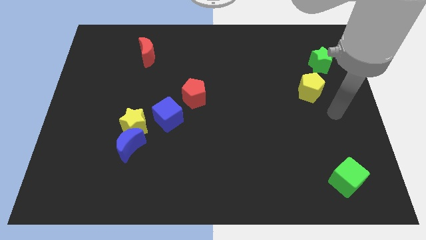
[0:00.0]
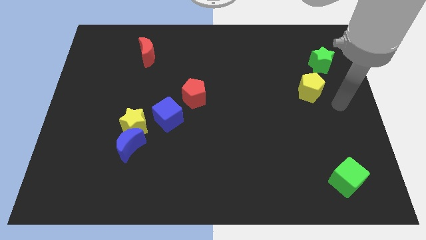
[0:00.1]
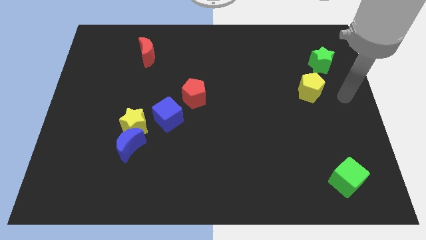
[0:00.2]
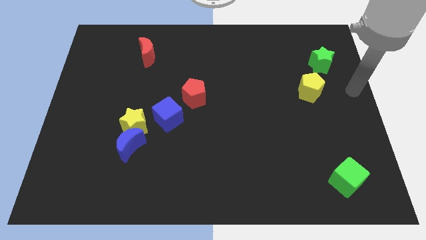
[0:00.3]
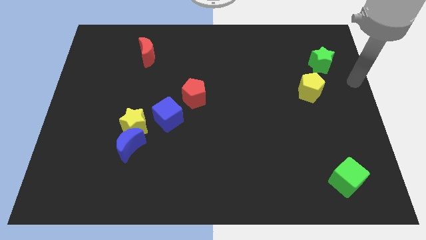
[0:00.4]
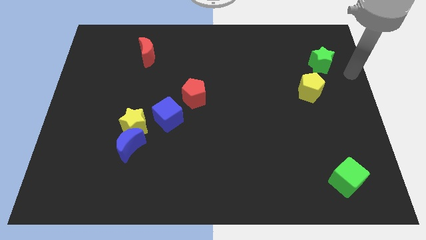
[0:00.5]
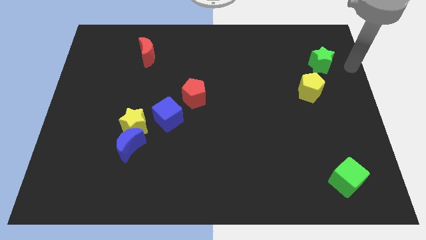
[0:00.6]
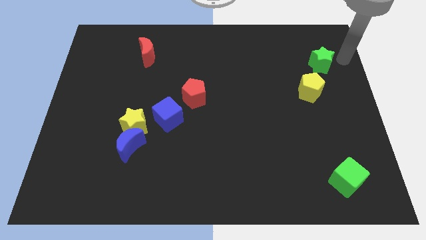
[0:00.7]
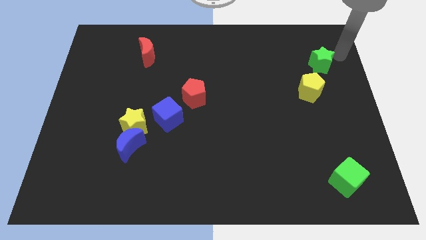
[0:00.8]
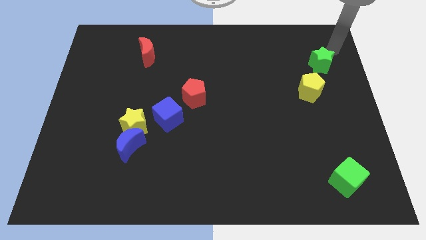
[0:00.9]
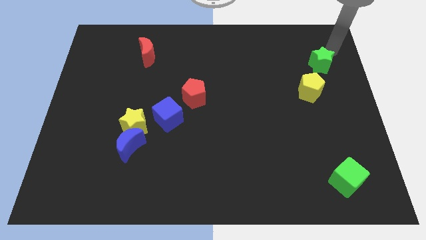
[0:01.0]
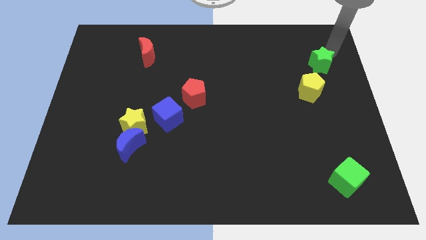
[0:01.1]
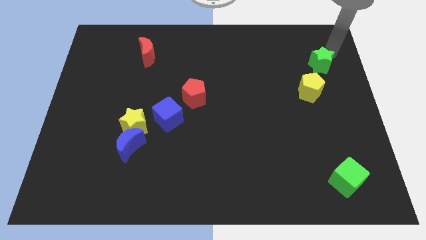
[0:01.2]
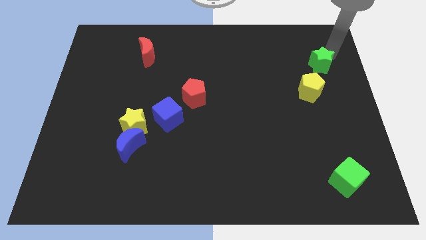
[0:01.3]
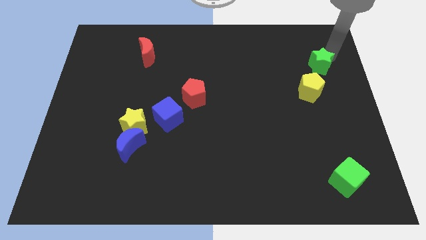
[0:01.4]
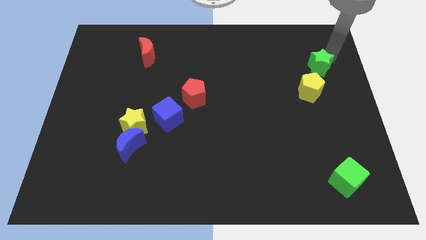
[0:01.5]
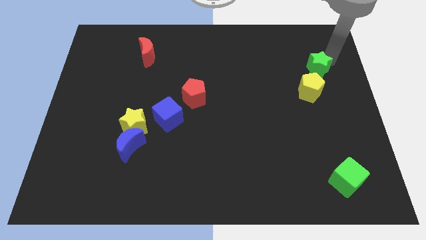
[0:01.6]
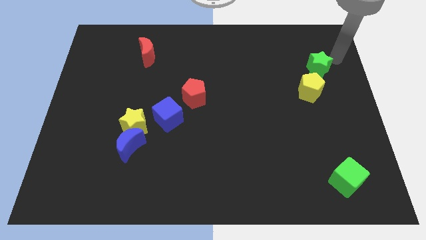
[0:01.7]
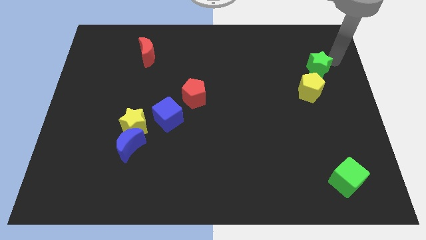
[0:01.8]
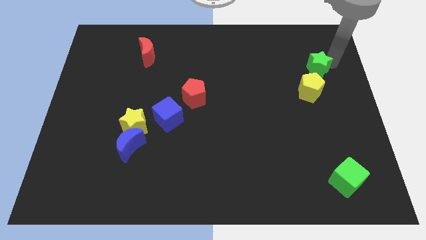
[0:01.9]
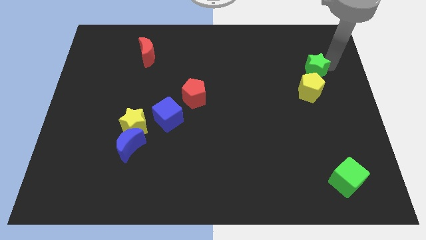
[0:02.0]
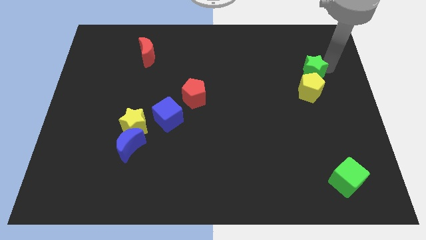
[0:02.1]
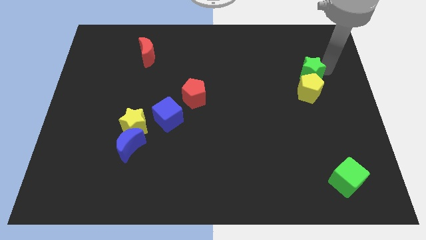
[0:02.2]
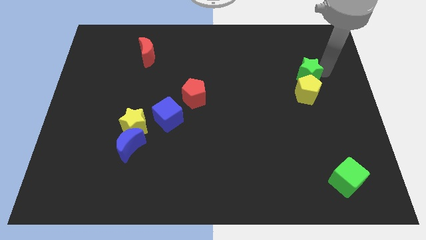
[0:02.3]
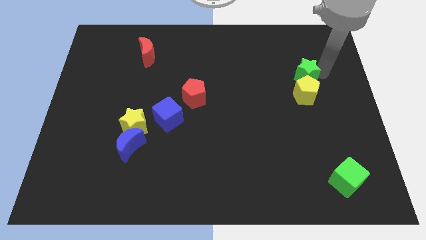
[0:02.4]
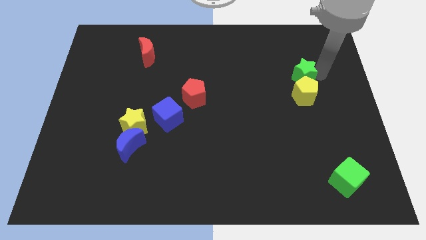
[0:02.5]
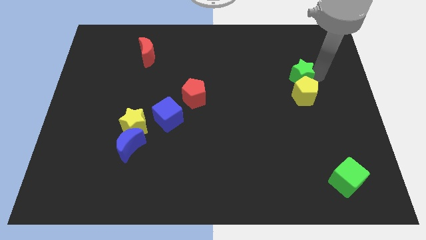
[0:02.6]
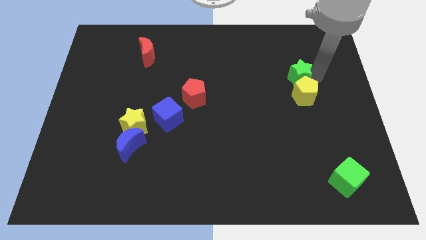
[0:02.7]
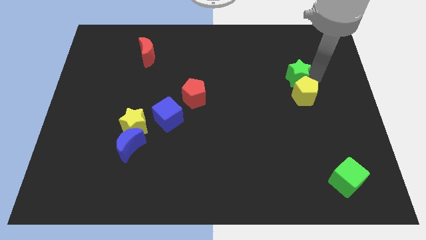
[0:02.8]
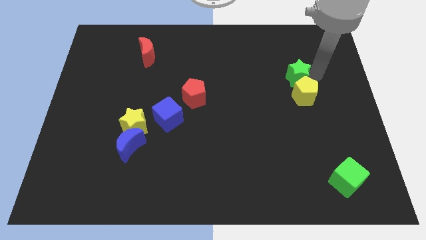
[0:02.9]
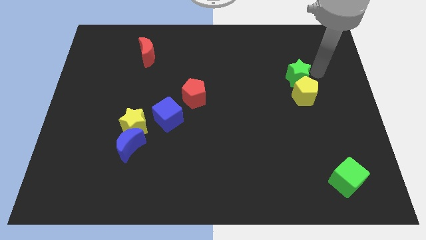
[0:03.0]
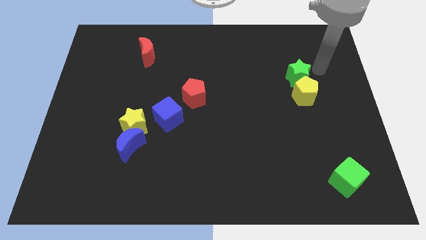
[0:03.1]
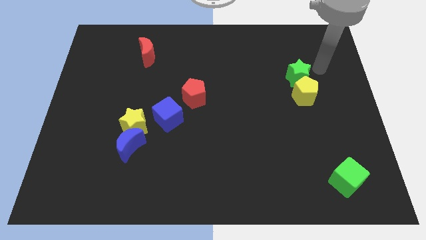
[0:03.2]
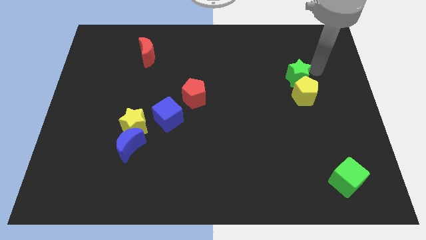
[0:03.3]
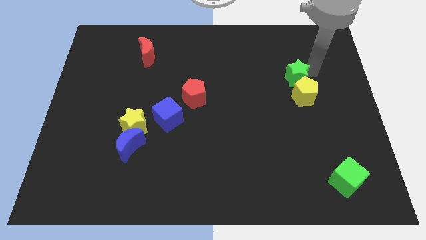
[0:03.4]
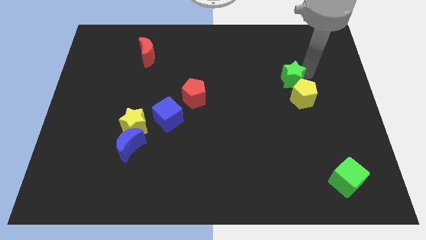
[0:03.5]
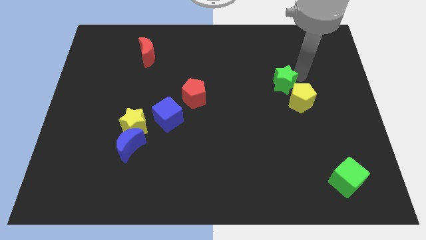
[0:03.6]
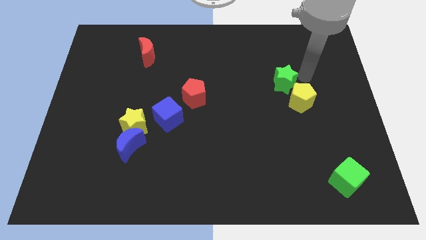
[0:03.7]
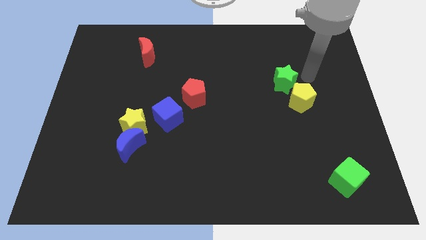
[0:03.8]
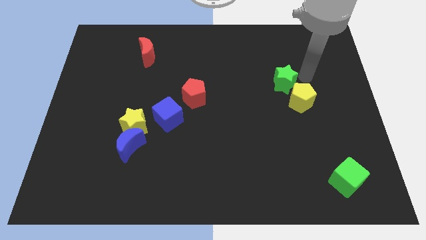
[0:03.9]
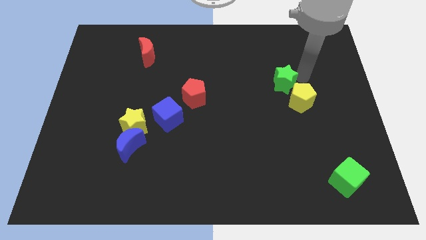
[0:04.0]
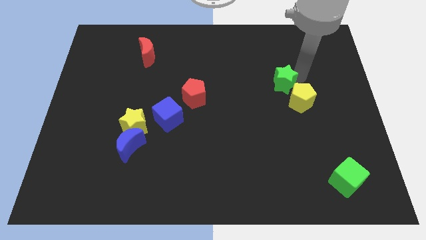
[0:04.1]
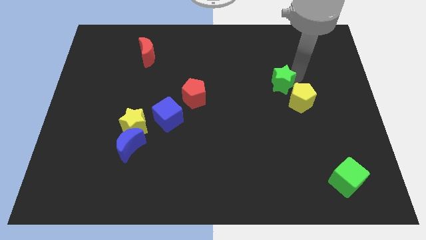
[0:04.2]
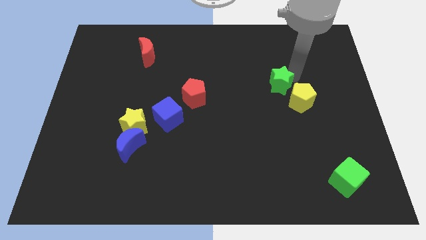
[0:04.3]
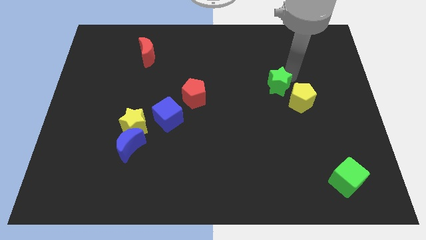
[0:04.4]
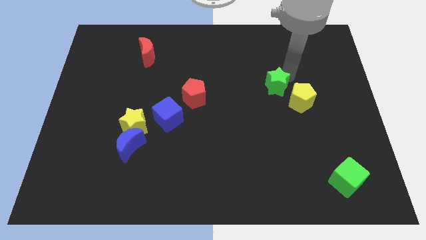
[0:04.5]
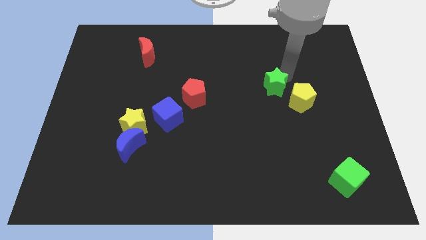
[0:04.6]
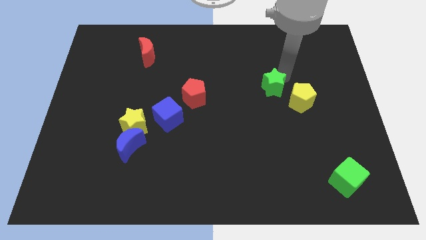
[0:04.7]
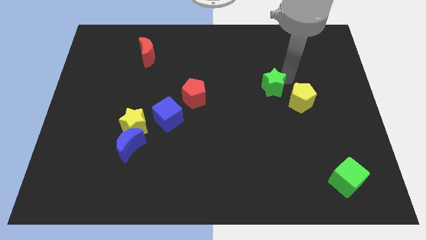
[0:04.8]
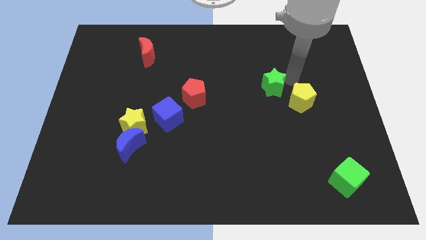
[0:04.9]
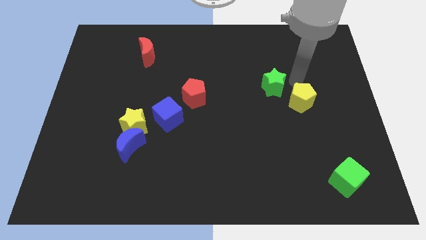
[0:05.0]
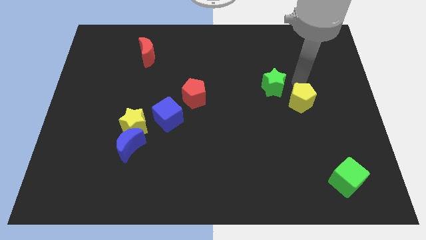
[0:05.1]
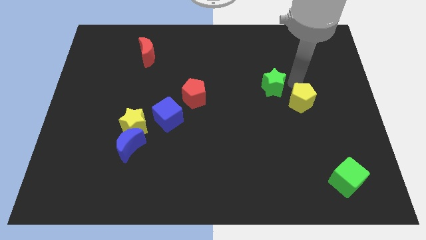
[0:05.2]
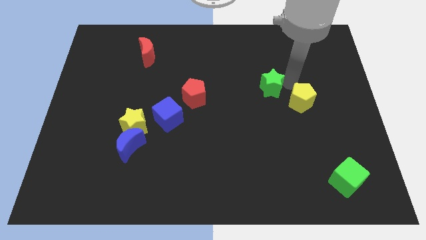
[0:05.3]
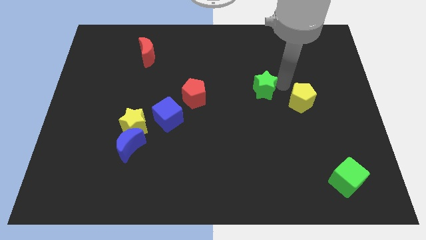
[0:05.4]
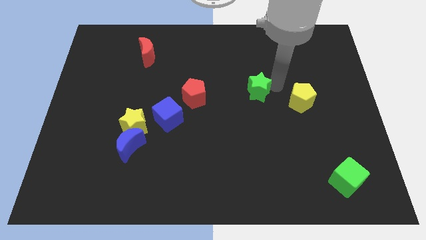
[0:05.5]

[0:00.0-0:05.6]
move the green star to the center of the board

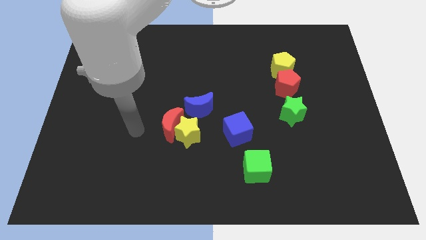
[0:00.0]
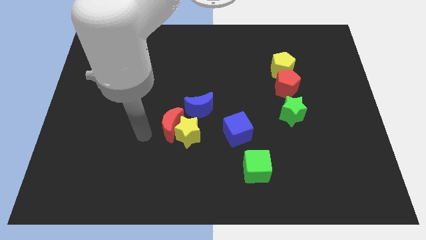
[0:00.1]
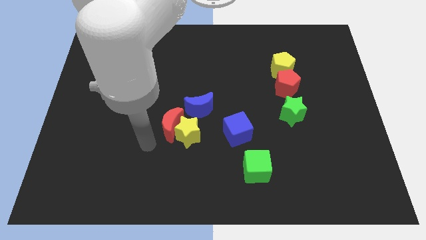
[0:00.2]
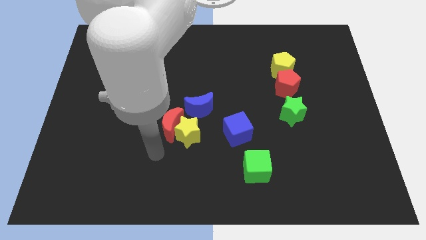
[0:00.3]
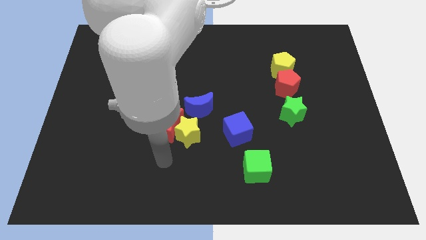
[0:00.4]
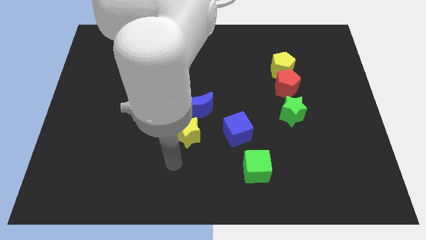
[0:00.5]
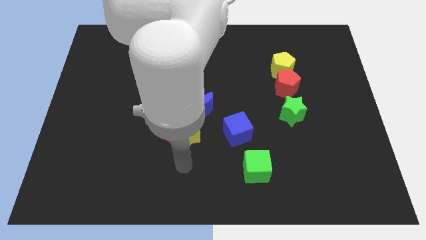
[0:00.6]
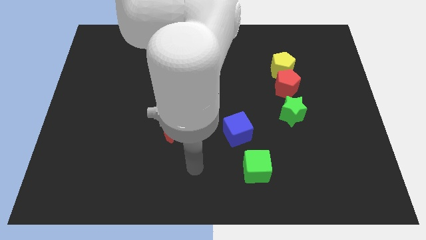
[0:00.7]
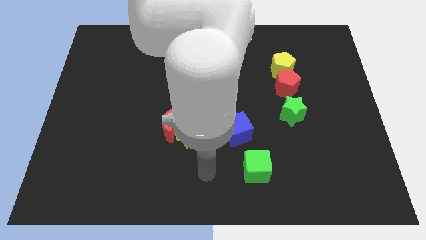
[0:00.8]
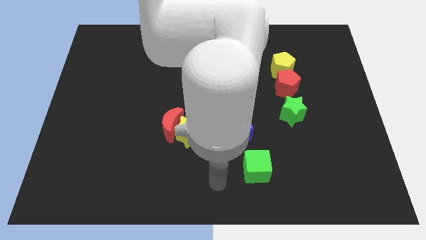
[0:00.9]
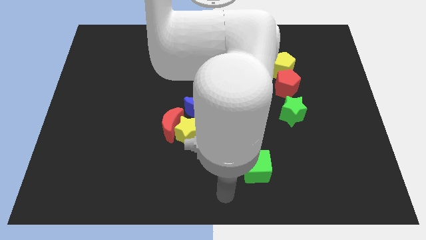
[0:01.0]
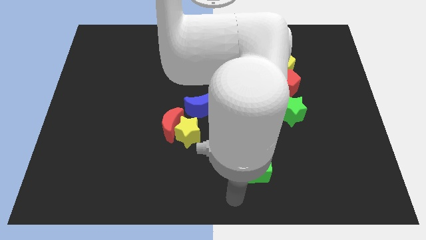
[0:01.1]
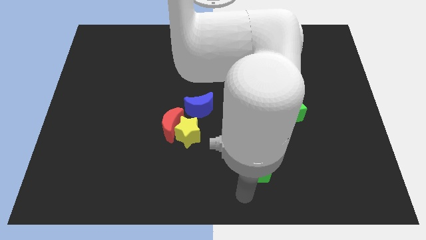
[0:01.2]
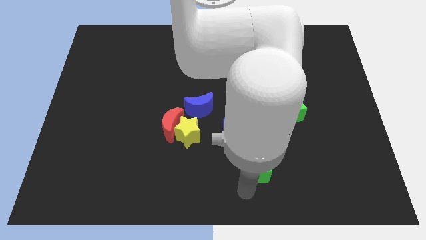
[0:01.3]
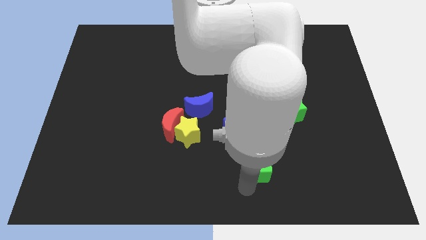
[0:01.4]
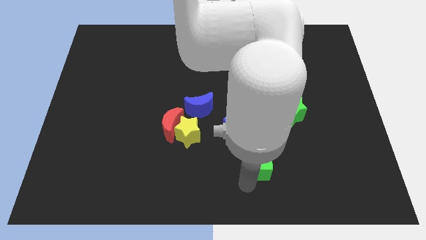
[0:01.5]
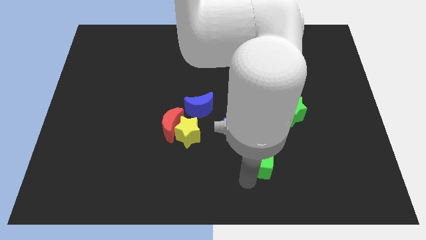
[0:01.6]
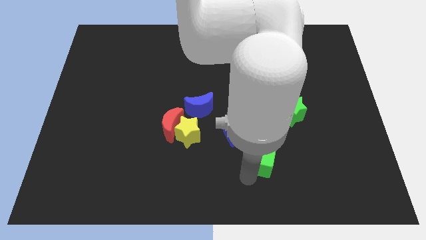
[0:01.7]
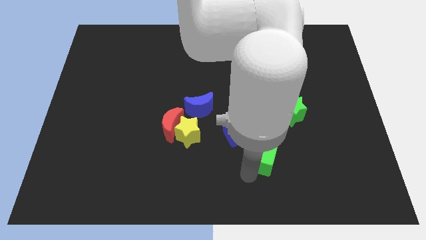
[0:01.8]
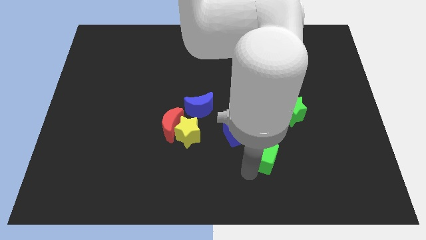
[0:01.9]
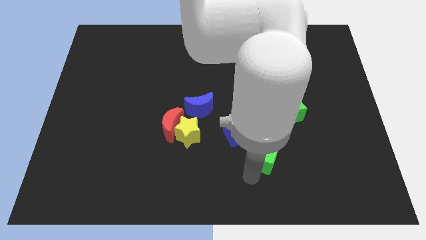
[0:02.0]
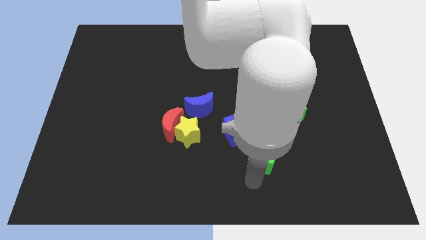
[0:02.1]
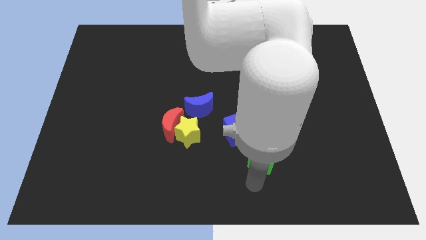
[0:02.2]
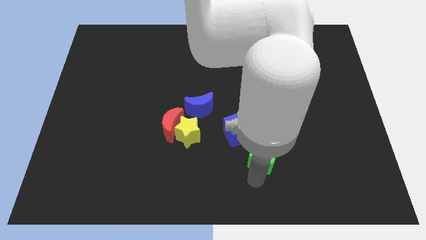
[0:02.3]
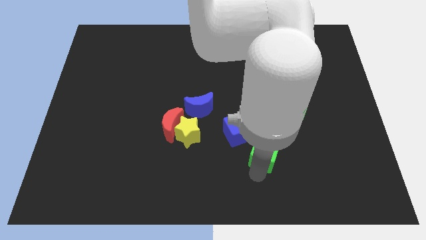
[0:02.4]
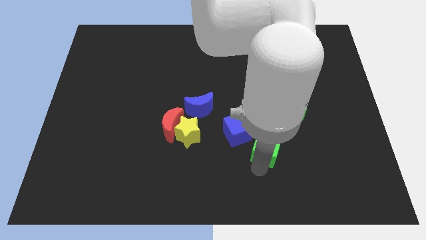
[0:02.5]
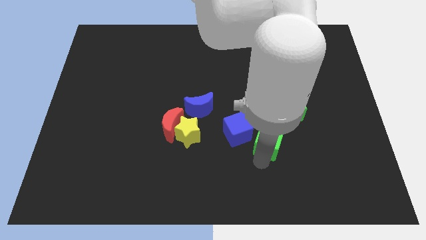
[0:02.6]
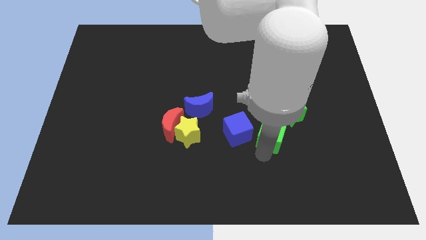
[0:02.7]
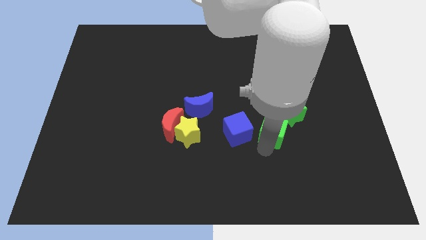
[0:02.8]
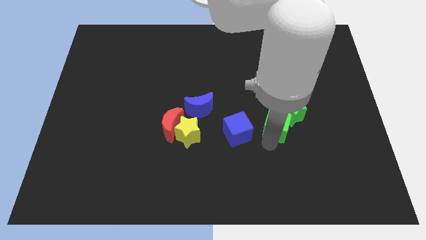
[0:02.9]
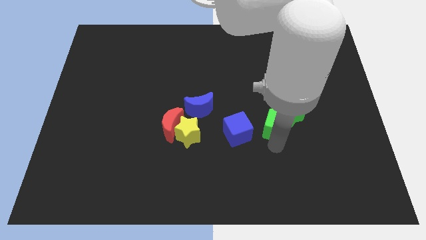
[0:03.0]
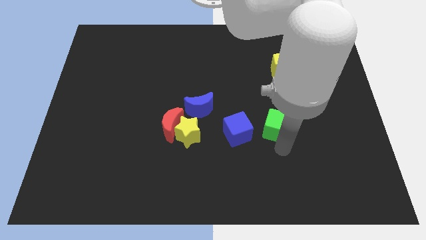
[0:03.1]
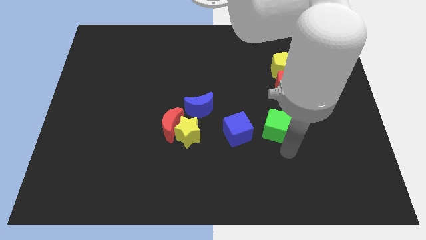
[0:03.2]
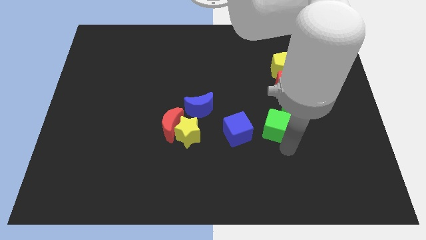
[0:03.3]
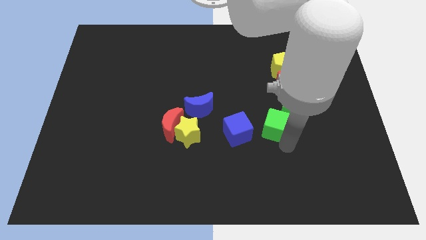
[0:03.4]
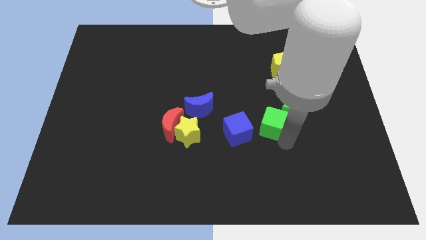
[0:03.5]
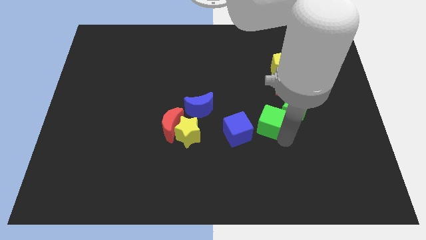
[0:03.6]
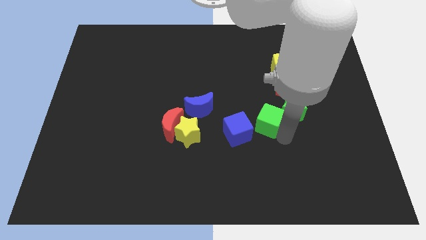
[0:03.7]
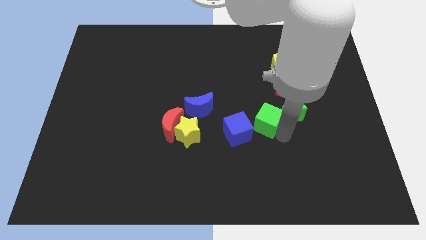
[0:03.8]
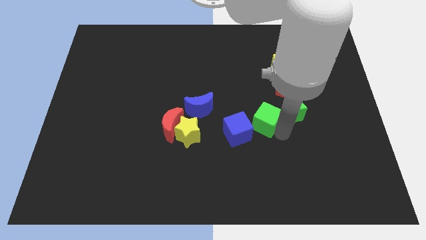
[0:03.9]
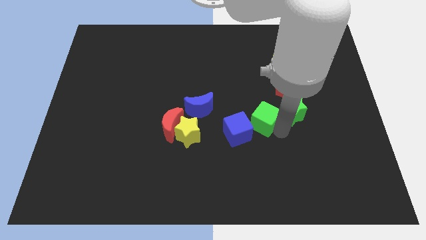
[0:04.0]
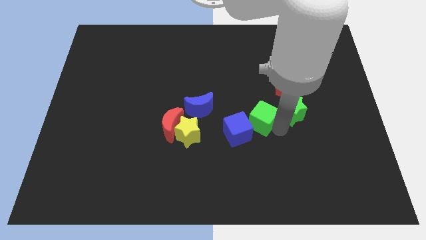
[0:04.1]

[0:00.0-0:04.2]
move the green cube to the middle of the board
